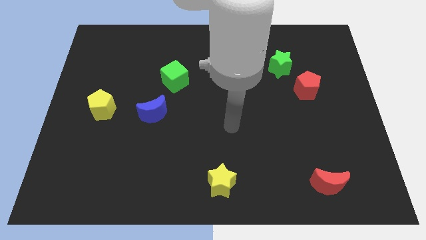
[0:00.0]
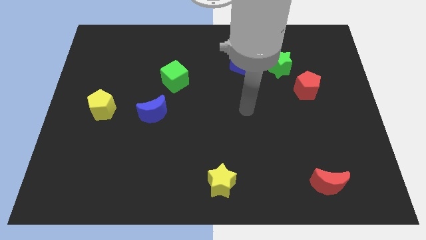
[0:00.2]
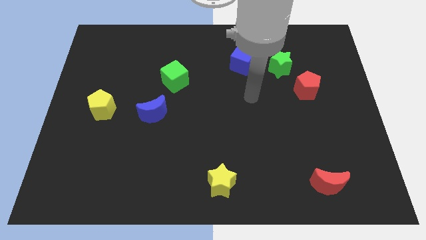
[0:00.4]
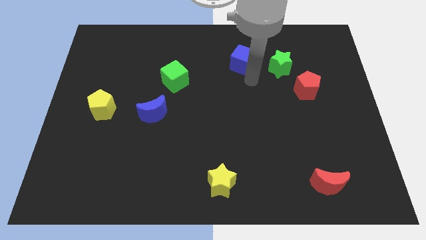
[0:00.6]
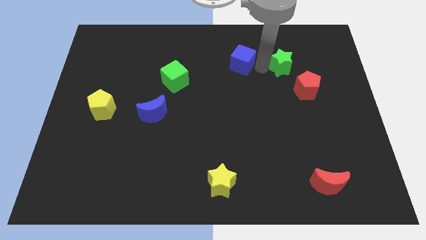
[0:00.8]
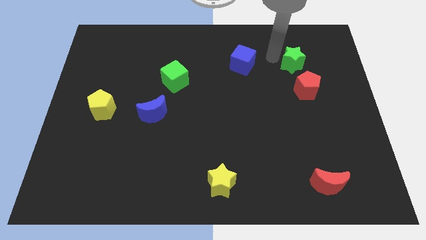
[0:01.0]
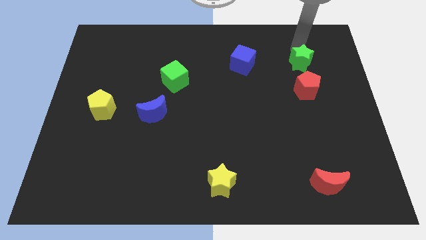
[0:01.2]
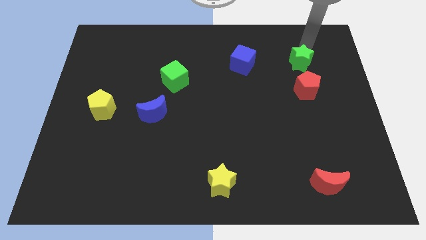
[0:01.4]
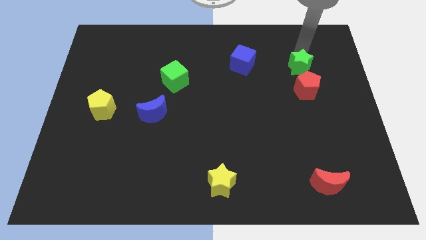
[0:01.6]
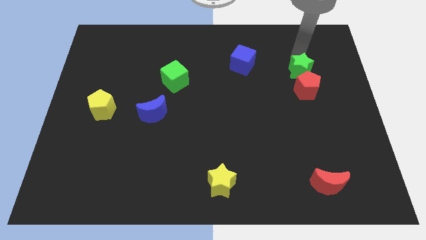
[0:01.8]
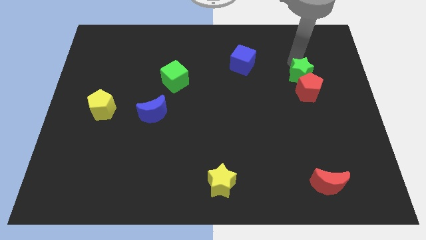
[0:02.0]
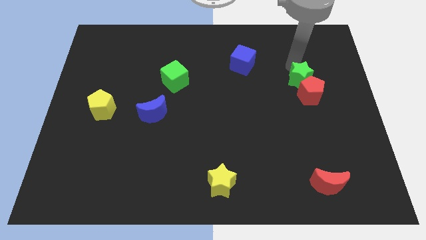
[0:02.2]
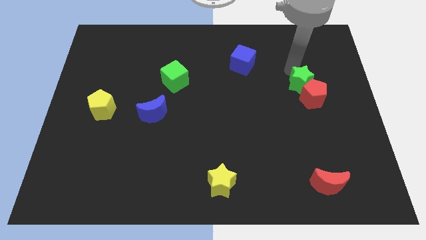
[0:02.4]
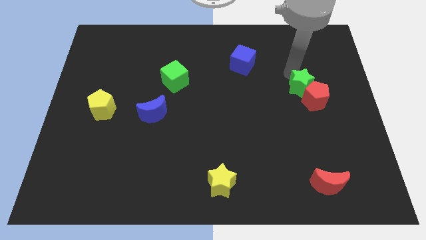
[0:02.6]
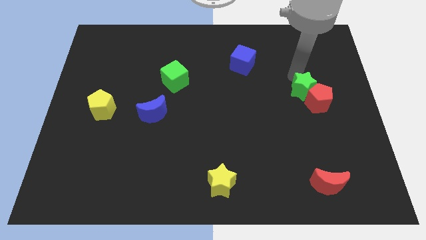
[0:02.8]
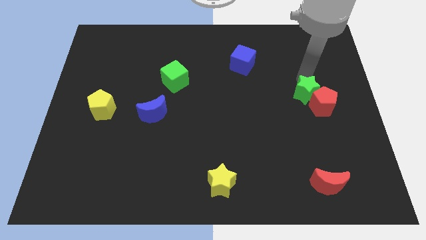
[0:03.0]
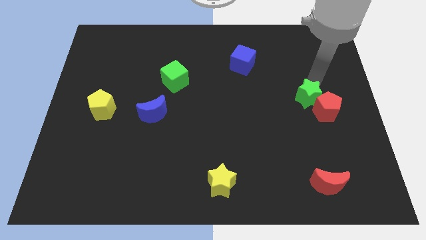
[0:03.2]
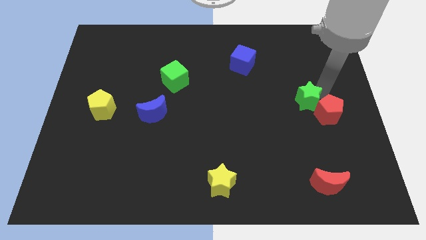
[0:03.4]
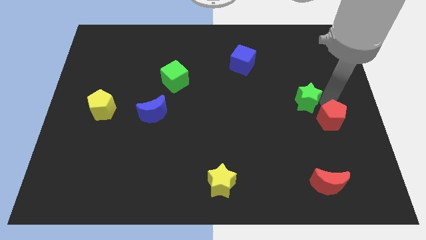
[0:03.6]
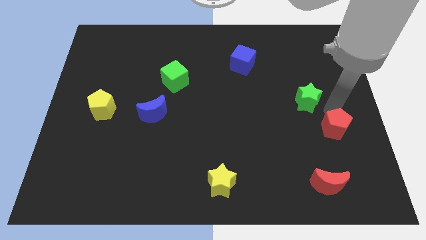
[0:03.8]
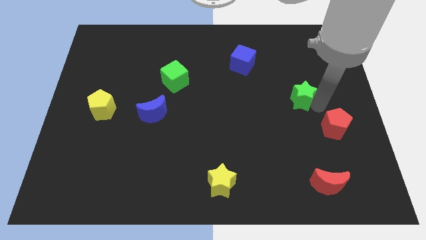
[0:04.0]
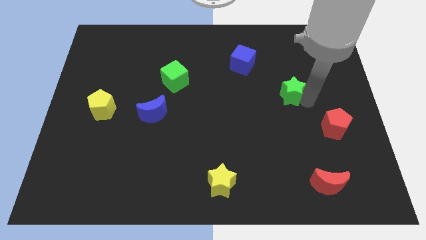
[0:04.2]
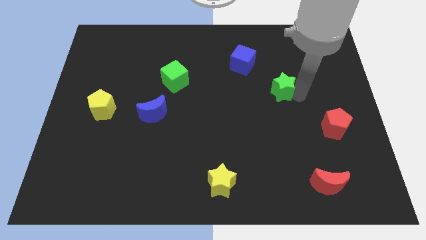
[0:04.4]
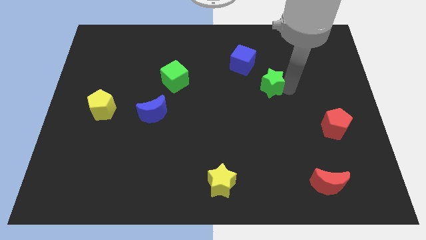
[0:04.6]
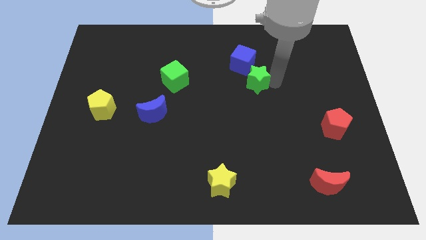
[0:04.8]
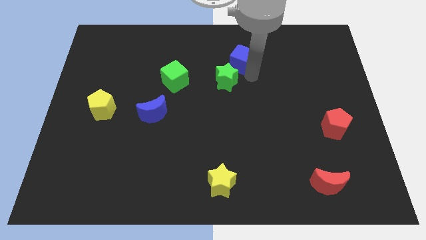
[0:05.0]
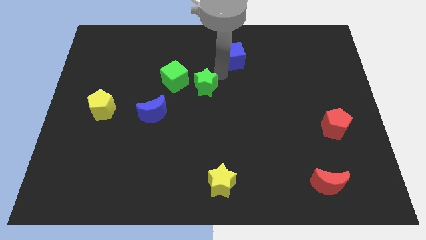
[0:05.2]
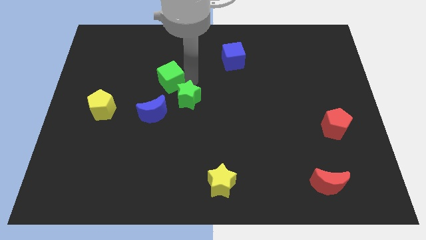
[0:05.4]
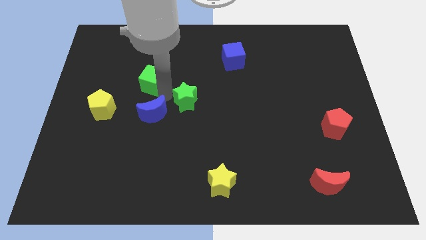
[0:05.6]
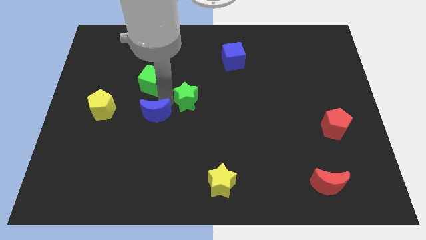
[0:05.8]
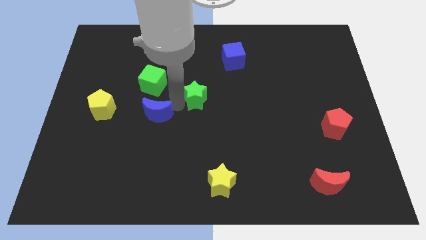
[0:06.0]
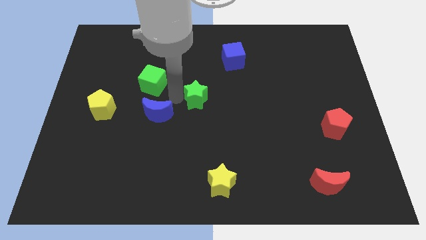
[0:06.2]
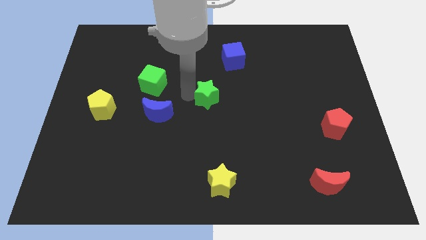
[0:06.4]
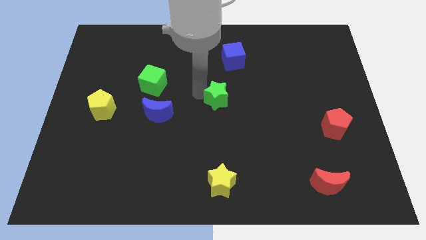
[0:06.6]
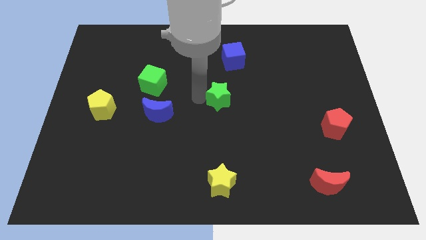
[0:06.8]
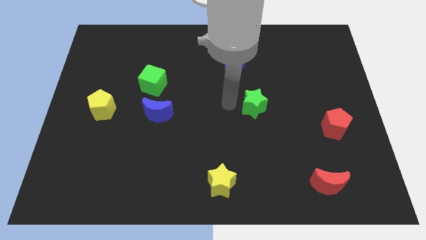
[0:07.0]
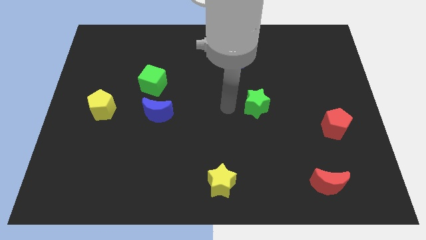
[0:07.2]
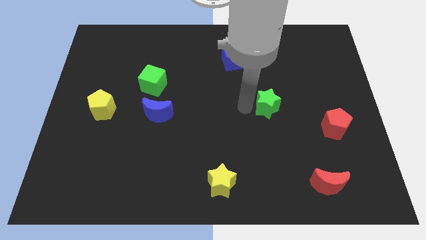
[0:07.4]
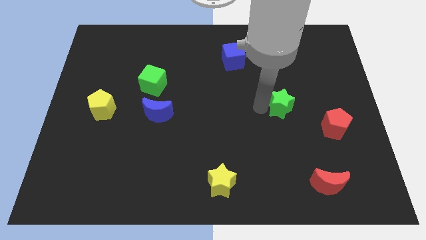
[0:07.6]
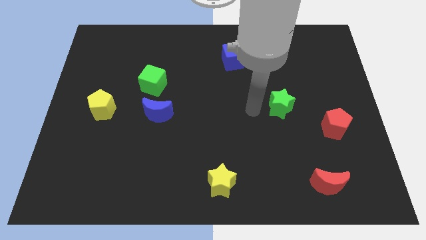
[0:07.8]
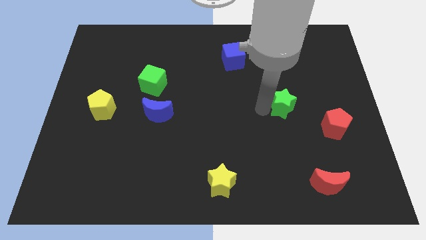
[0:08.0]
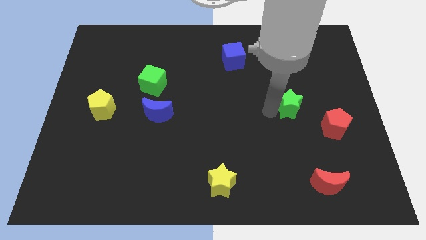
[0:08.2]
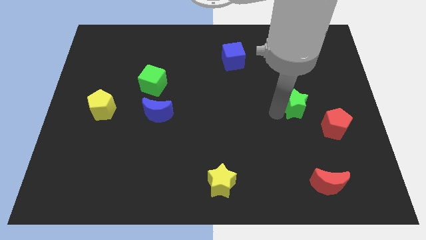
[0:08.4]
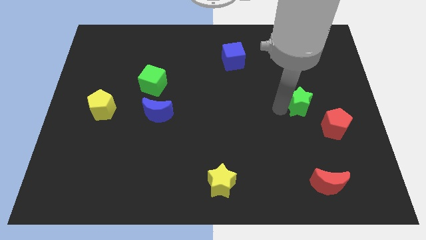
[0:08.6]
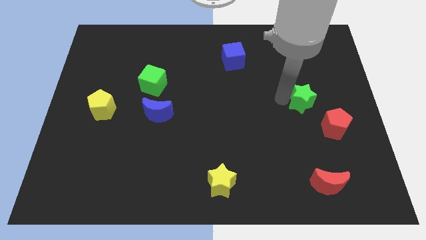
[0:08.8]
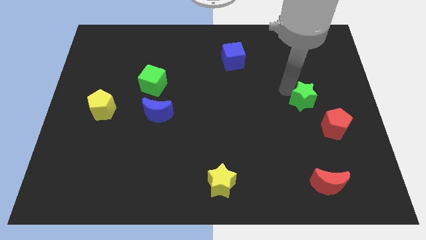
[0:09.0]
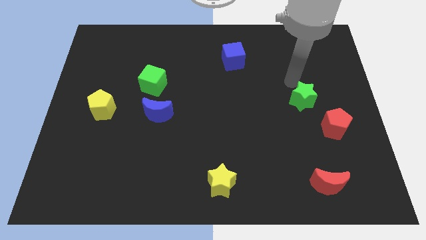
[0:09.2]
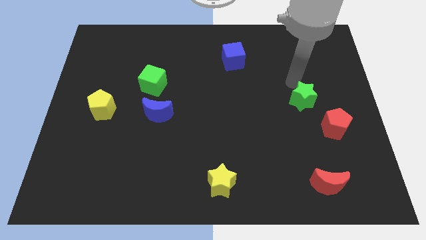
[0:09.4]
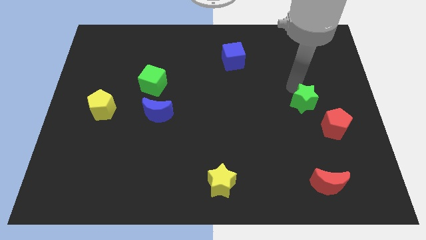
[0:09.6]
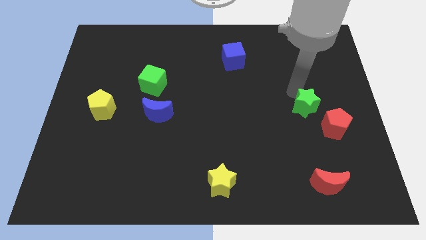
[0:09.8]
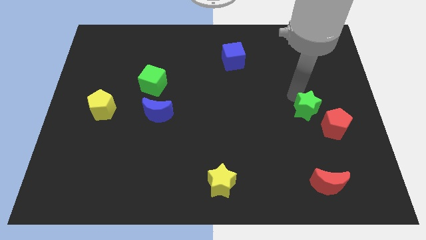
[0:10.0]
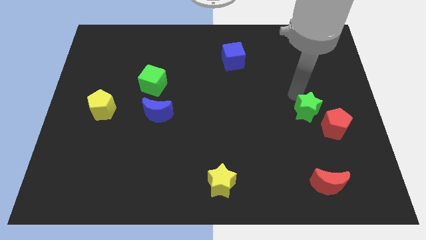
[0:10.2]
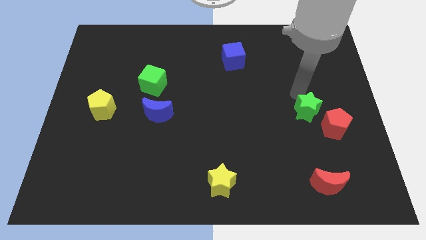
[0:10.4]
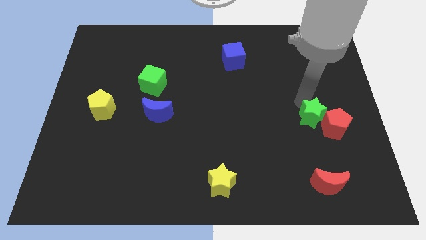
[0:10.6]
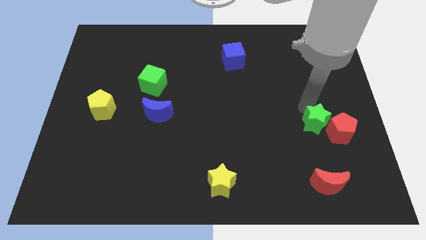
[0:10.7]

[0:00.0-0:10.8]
push the green star to the top of the red moon

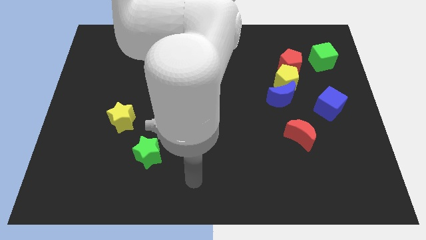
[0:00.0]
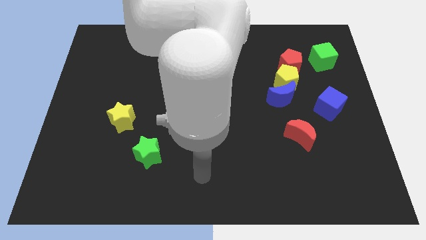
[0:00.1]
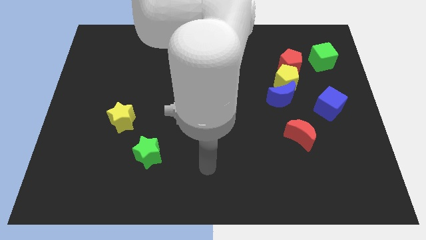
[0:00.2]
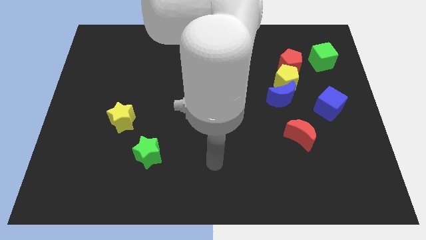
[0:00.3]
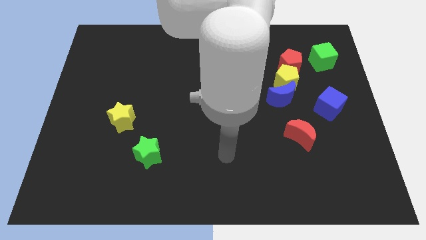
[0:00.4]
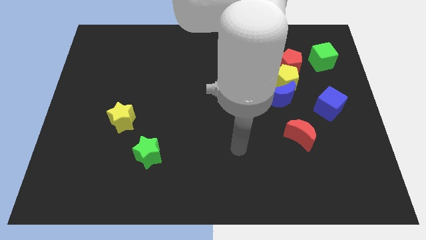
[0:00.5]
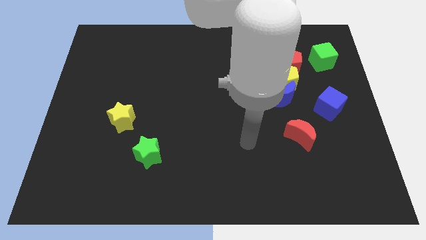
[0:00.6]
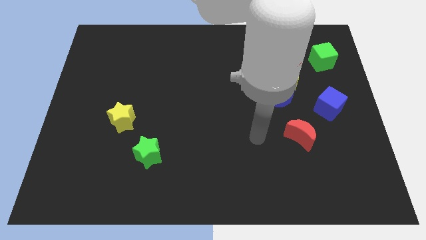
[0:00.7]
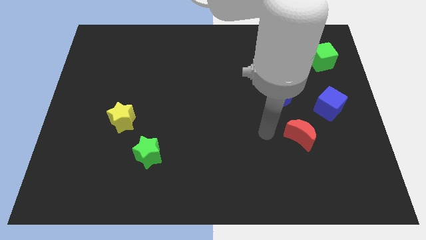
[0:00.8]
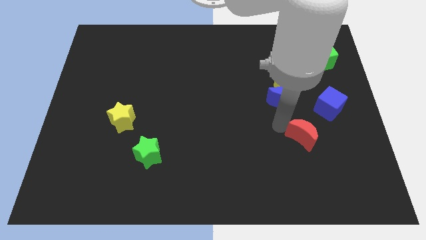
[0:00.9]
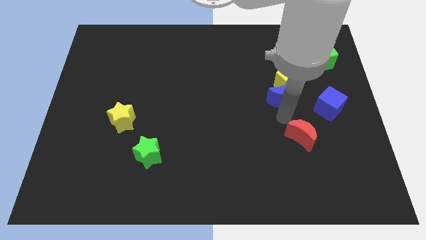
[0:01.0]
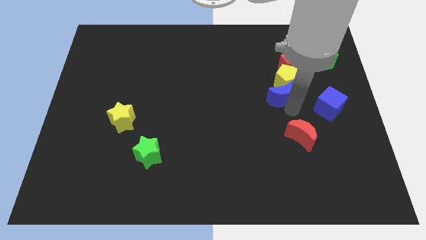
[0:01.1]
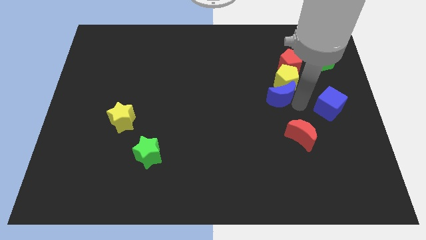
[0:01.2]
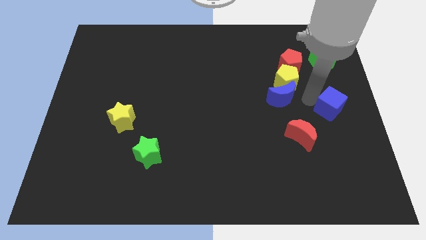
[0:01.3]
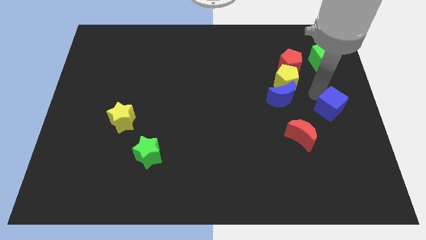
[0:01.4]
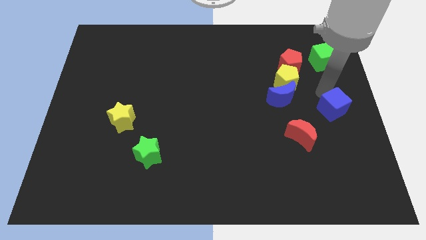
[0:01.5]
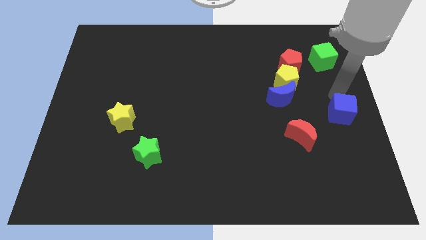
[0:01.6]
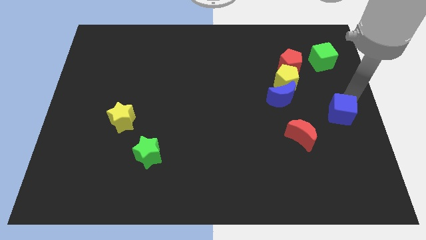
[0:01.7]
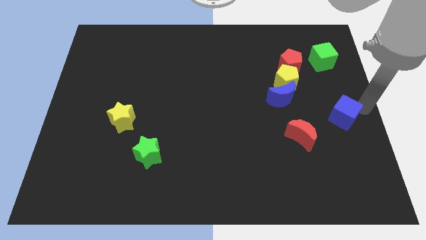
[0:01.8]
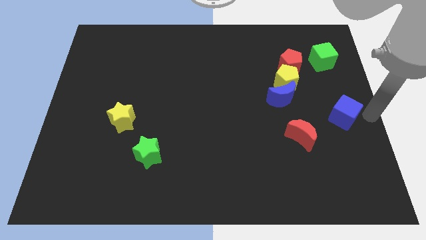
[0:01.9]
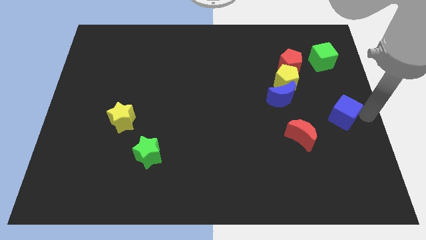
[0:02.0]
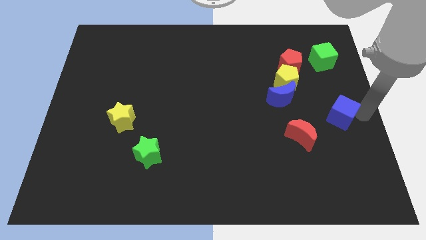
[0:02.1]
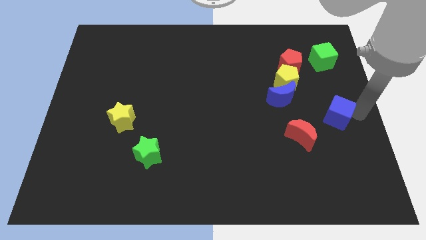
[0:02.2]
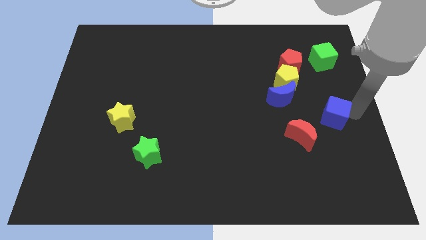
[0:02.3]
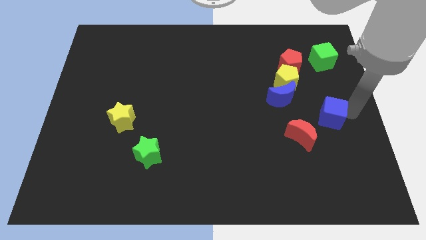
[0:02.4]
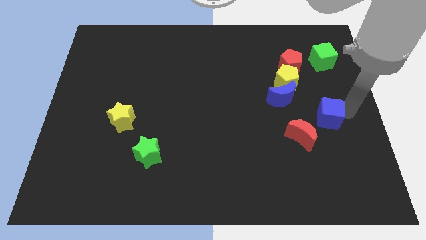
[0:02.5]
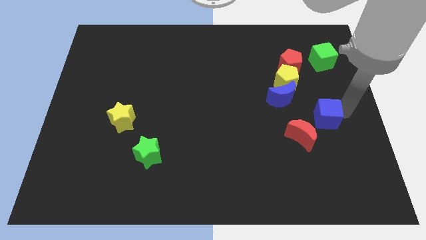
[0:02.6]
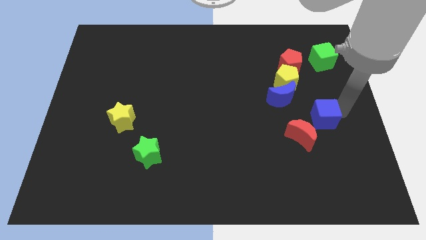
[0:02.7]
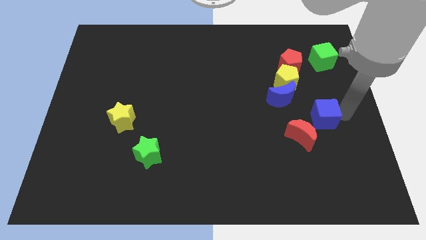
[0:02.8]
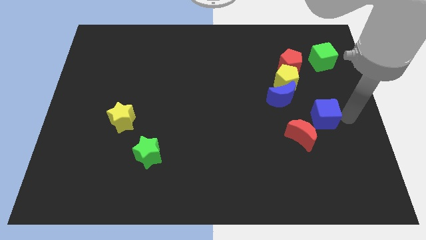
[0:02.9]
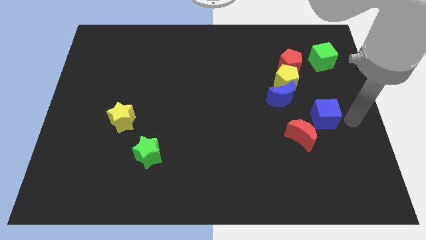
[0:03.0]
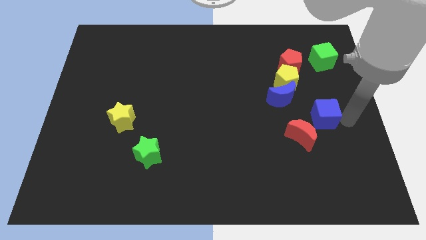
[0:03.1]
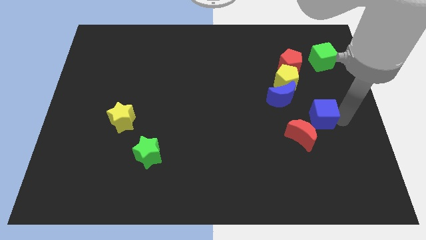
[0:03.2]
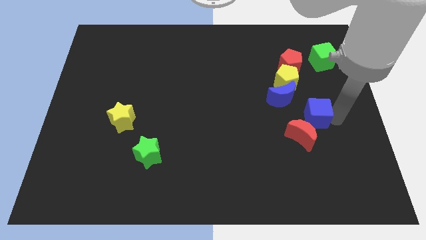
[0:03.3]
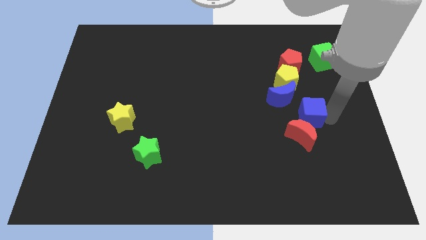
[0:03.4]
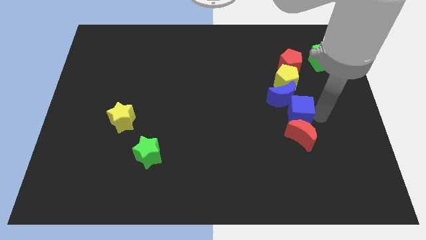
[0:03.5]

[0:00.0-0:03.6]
put the blue cube diagonally up and to the left of the red moon
